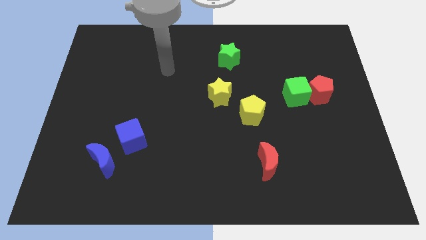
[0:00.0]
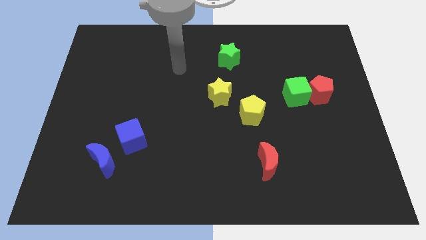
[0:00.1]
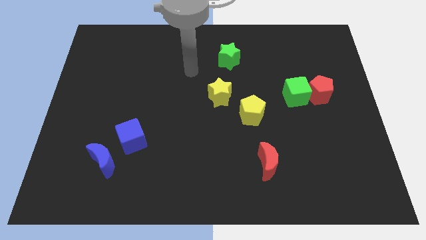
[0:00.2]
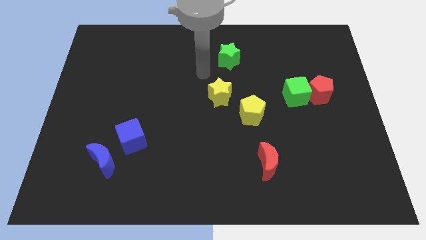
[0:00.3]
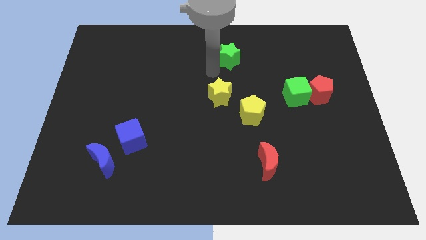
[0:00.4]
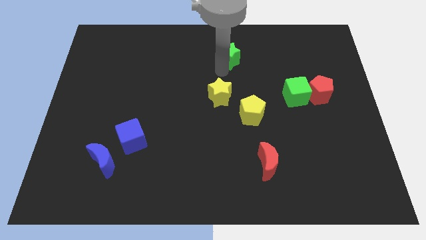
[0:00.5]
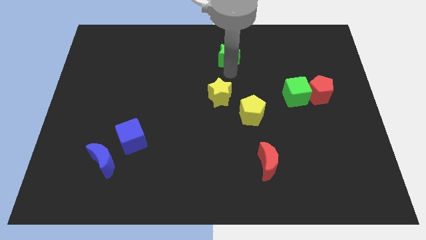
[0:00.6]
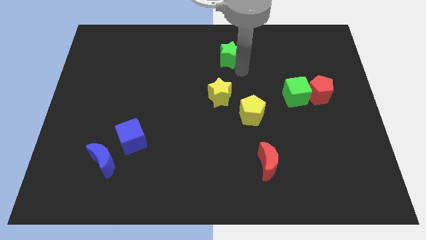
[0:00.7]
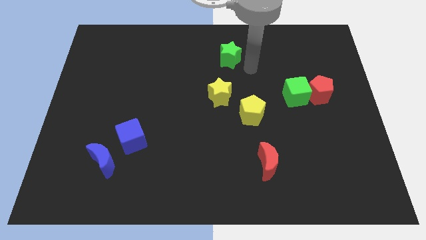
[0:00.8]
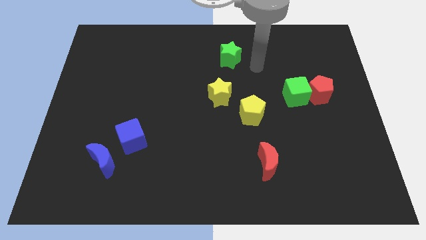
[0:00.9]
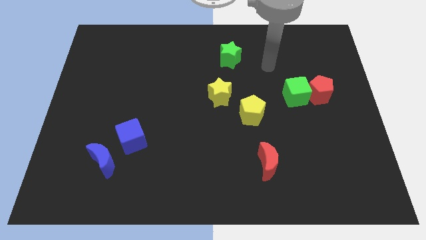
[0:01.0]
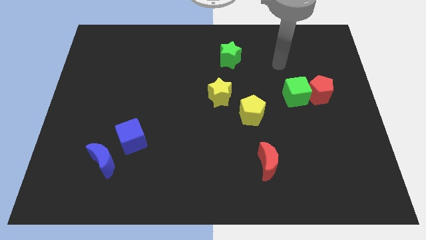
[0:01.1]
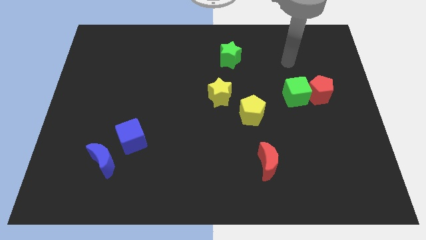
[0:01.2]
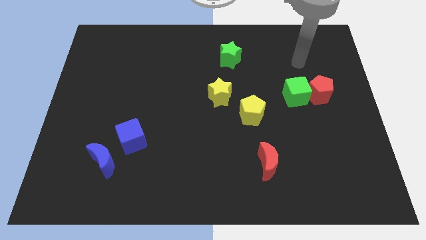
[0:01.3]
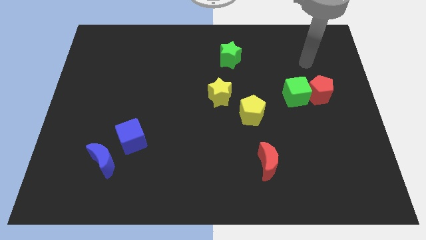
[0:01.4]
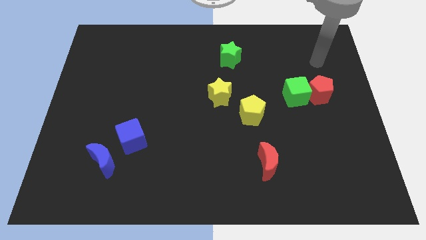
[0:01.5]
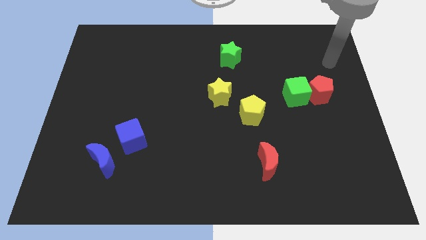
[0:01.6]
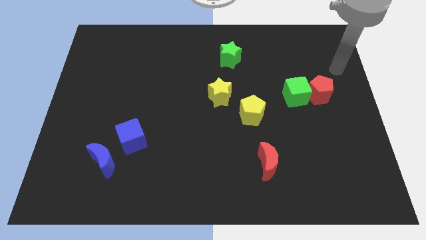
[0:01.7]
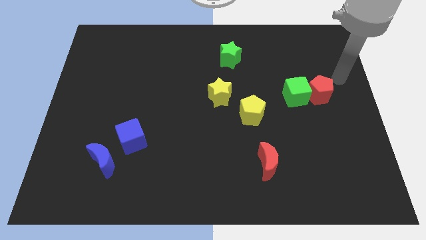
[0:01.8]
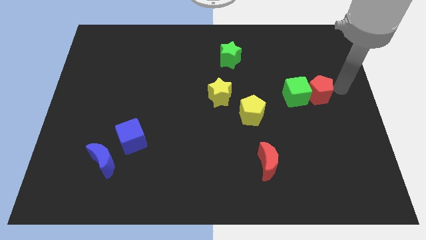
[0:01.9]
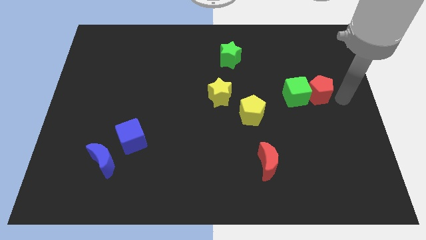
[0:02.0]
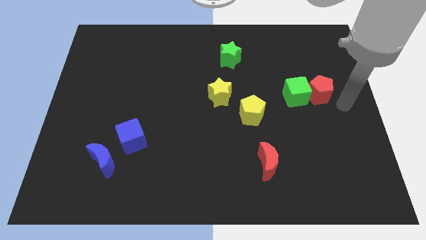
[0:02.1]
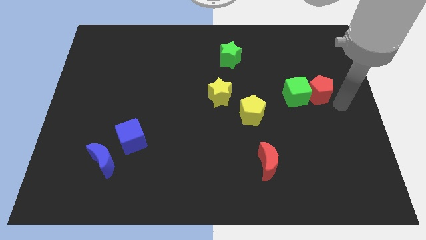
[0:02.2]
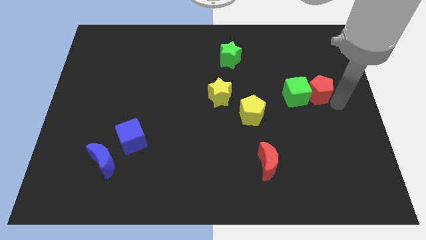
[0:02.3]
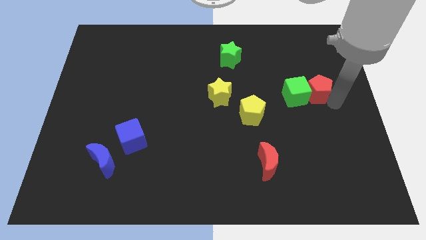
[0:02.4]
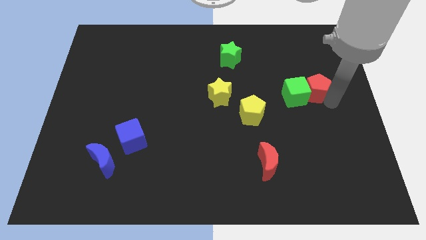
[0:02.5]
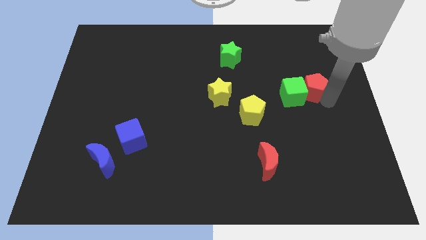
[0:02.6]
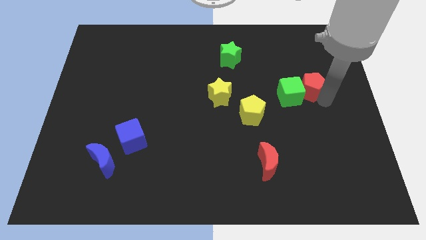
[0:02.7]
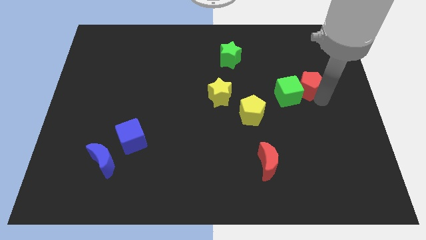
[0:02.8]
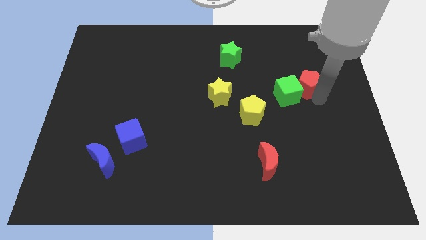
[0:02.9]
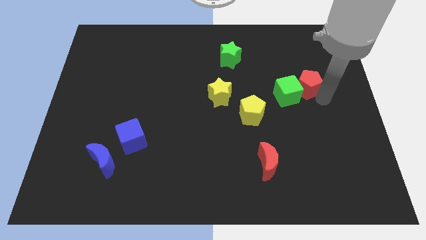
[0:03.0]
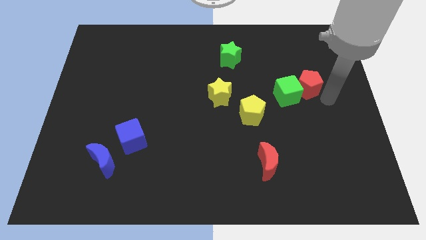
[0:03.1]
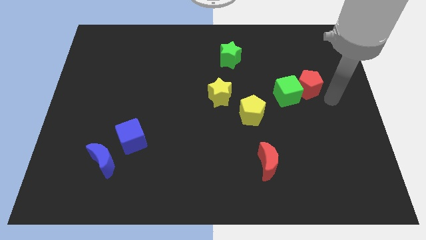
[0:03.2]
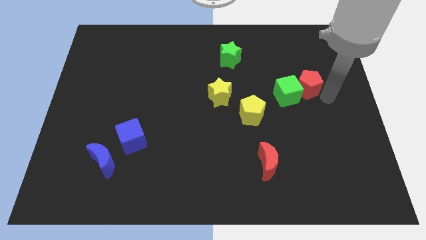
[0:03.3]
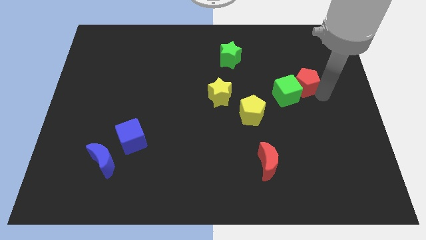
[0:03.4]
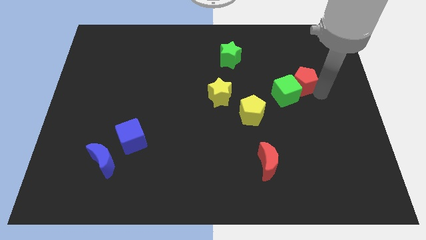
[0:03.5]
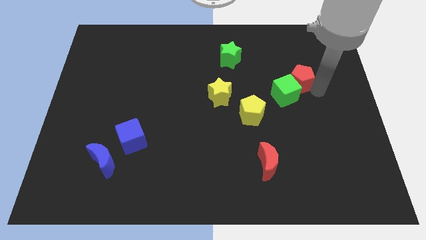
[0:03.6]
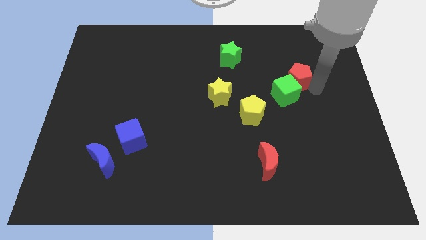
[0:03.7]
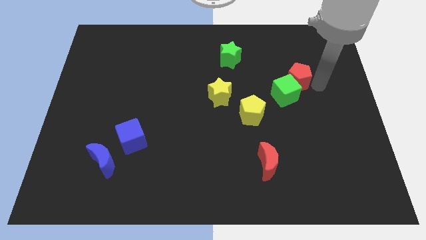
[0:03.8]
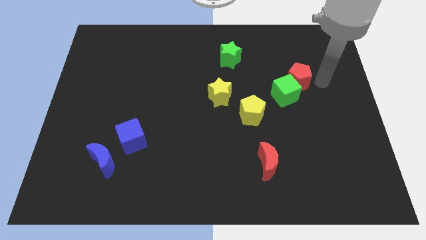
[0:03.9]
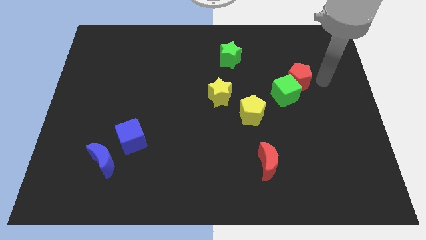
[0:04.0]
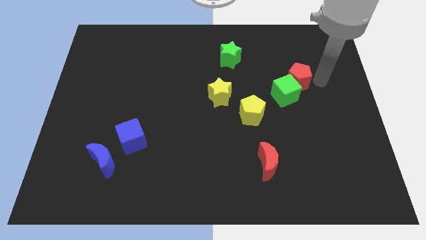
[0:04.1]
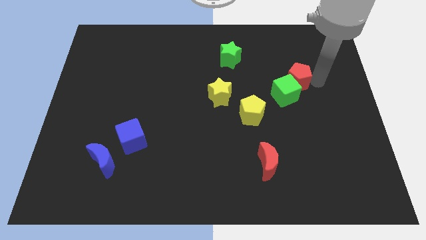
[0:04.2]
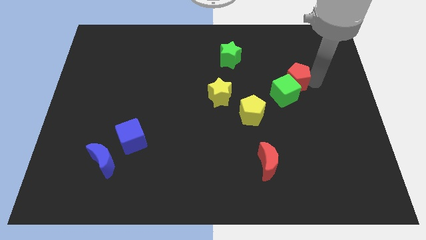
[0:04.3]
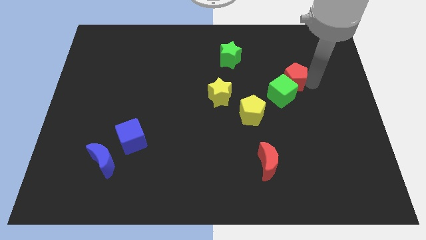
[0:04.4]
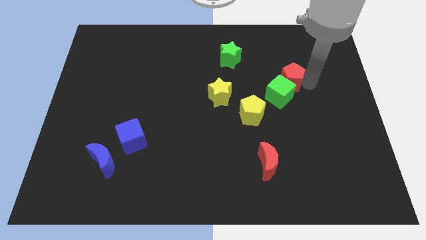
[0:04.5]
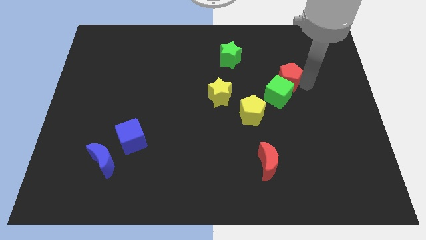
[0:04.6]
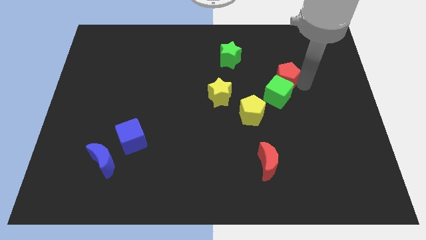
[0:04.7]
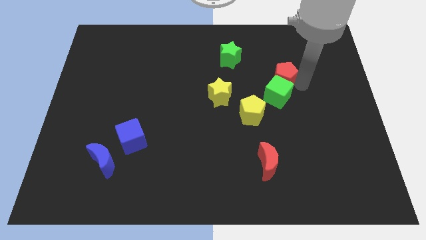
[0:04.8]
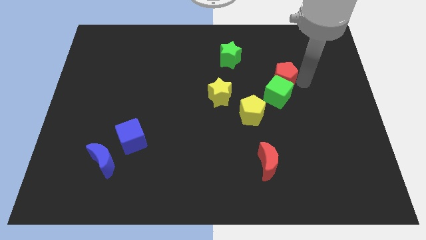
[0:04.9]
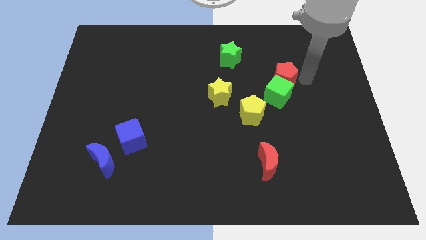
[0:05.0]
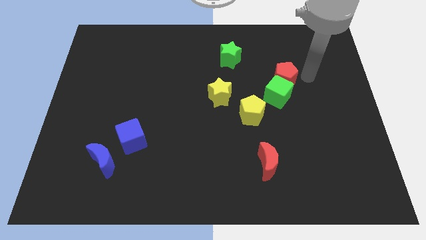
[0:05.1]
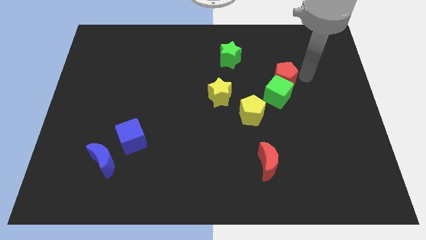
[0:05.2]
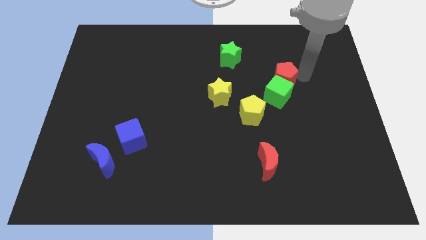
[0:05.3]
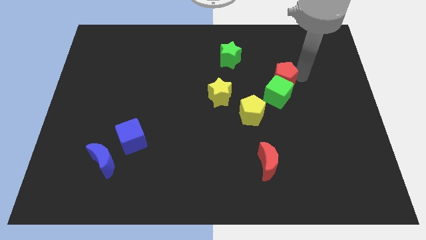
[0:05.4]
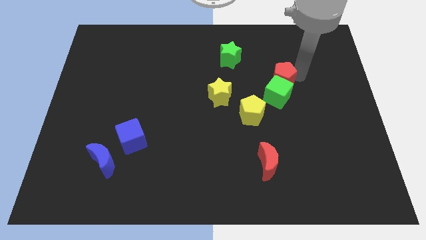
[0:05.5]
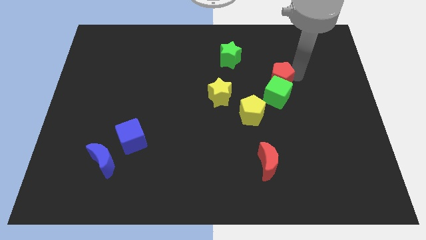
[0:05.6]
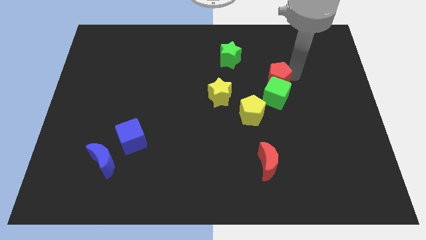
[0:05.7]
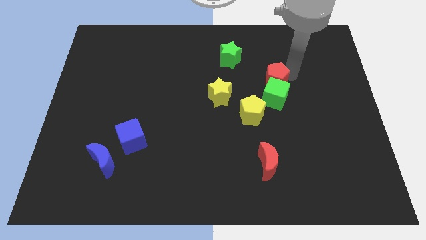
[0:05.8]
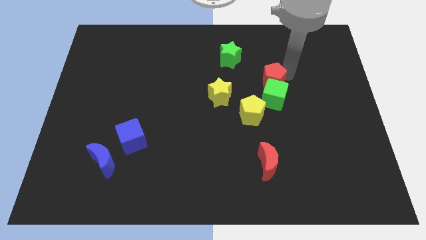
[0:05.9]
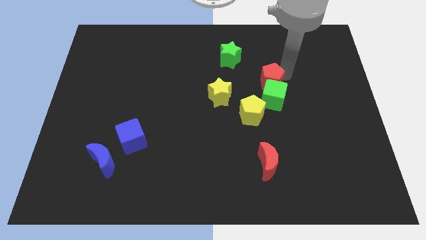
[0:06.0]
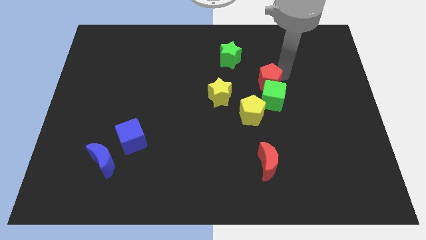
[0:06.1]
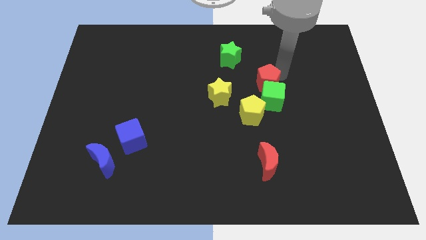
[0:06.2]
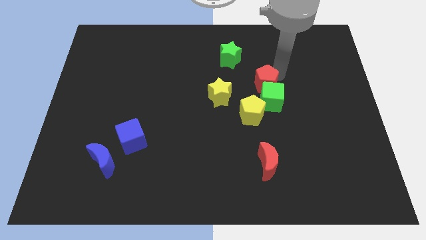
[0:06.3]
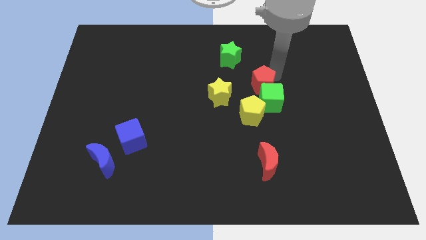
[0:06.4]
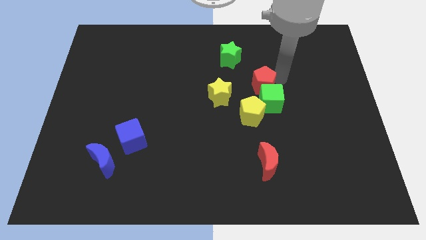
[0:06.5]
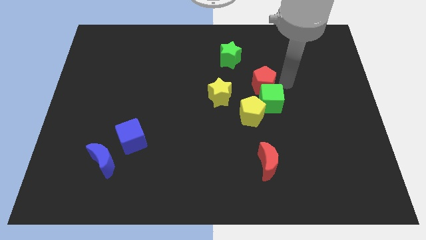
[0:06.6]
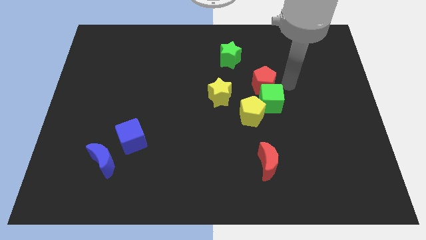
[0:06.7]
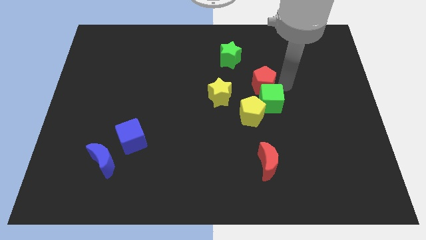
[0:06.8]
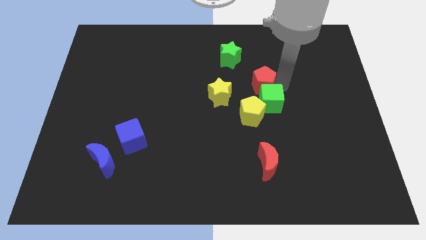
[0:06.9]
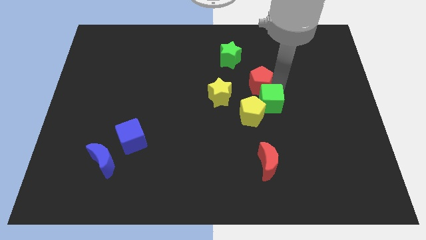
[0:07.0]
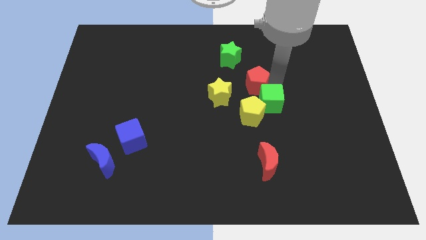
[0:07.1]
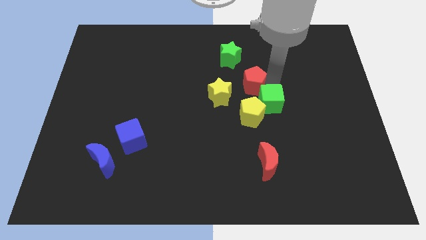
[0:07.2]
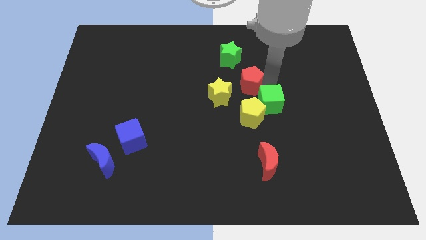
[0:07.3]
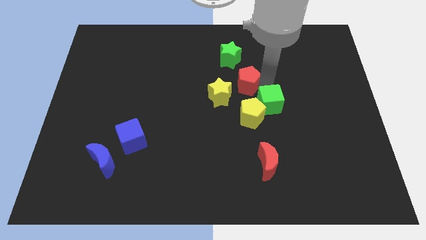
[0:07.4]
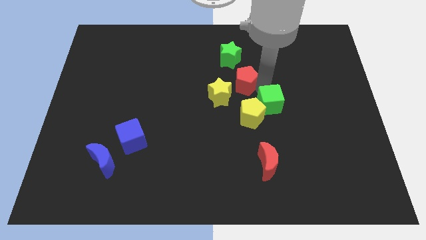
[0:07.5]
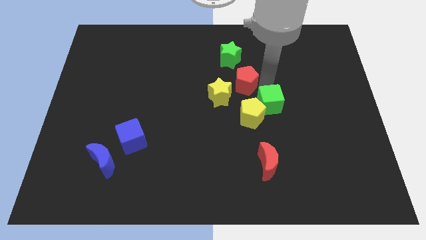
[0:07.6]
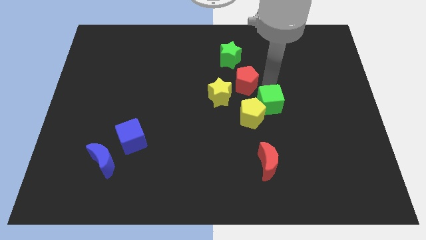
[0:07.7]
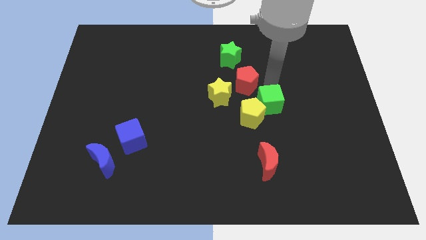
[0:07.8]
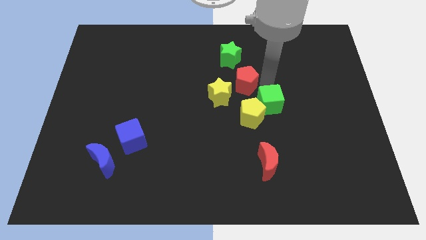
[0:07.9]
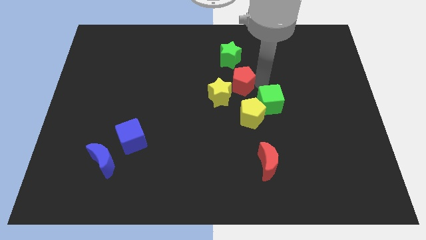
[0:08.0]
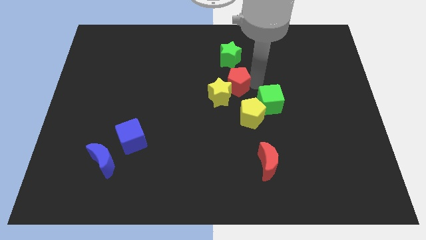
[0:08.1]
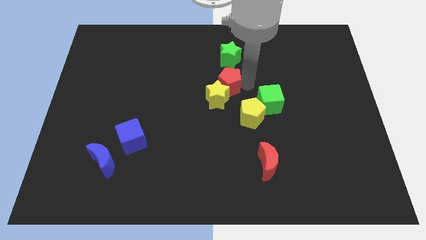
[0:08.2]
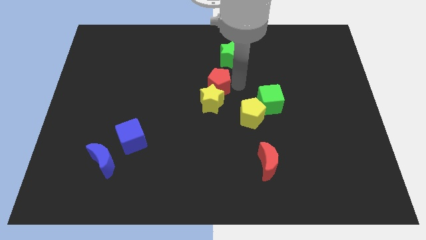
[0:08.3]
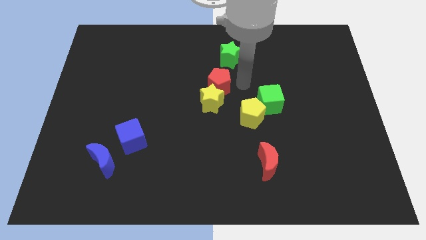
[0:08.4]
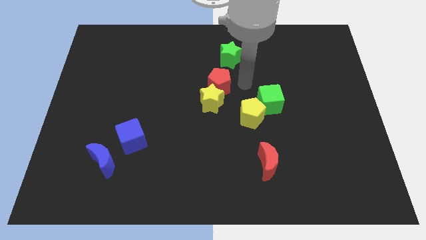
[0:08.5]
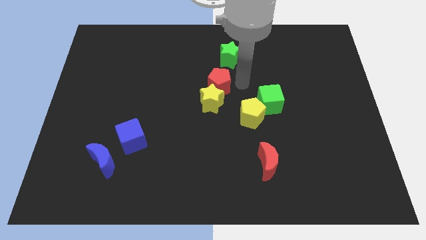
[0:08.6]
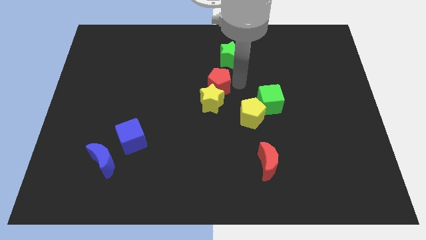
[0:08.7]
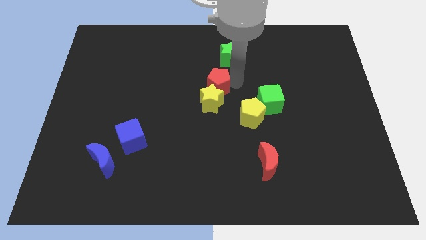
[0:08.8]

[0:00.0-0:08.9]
put the red pentagon to the top left of the yellow star
